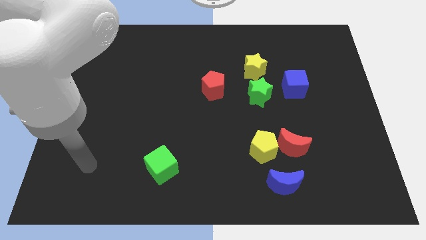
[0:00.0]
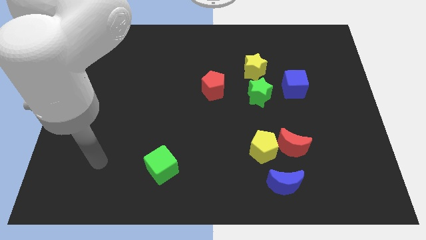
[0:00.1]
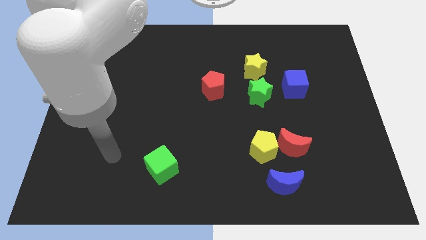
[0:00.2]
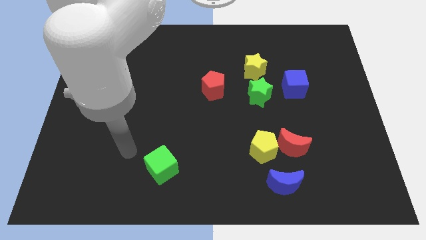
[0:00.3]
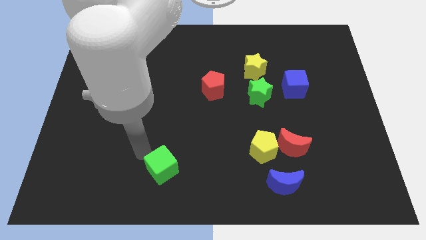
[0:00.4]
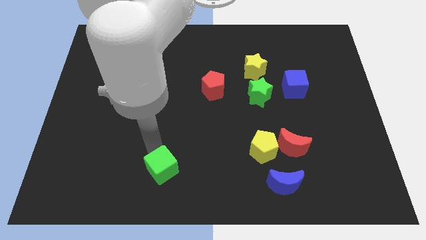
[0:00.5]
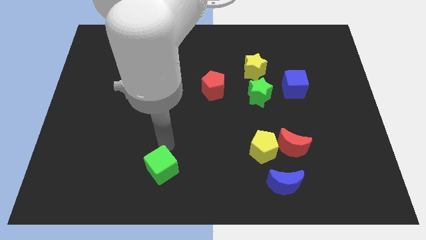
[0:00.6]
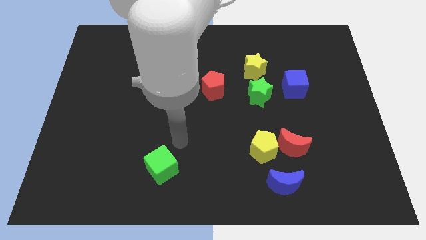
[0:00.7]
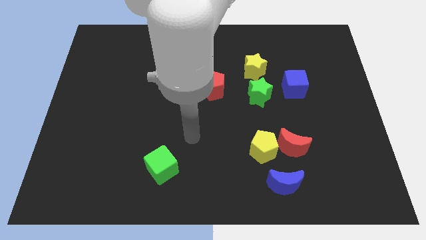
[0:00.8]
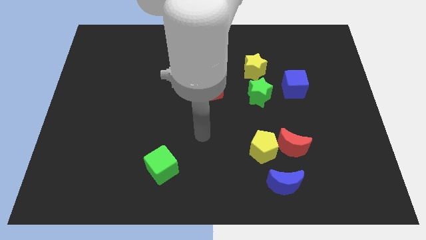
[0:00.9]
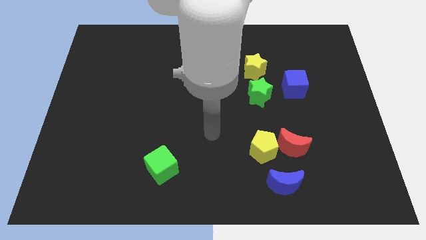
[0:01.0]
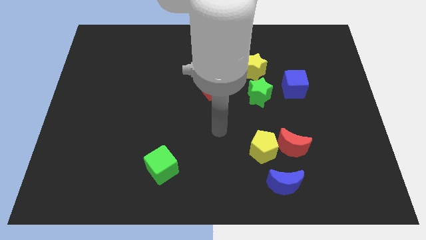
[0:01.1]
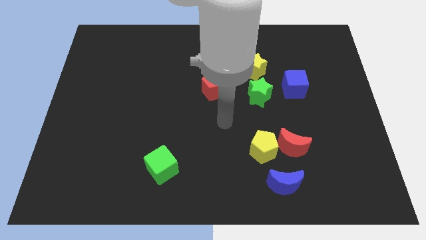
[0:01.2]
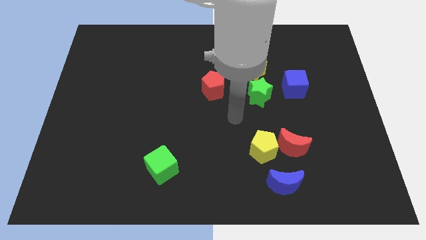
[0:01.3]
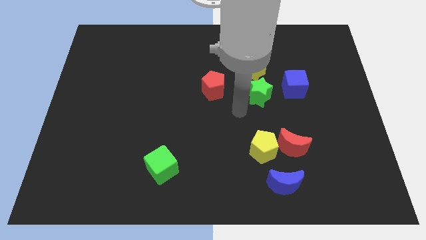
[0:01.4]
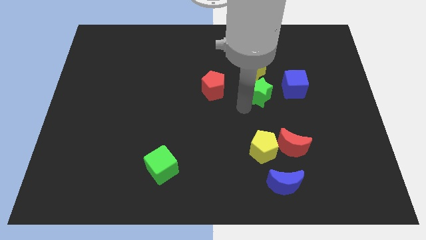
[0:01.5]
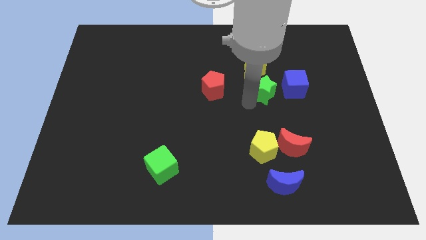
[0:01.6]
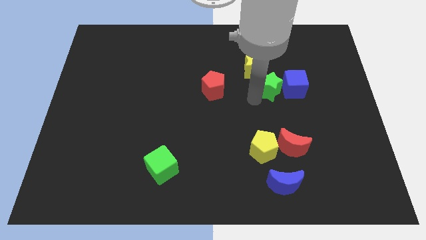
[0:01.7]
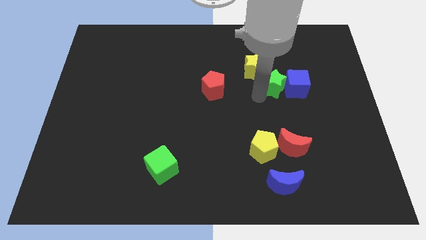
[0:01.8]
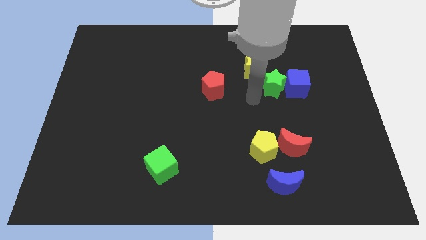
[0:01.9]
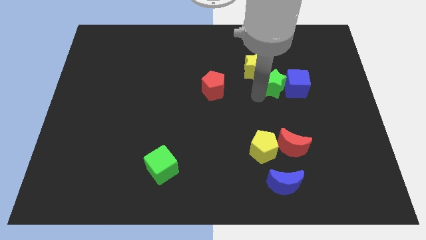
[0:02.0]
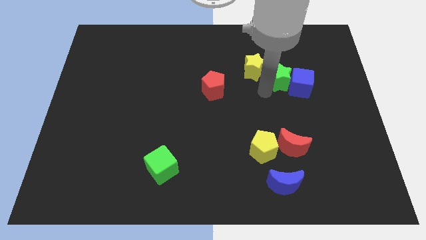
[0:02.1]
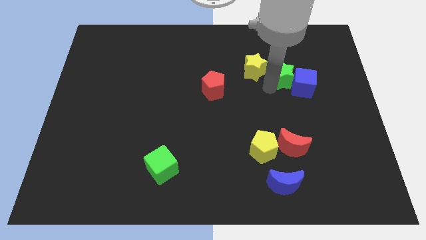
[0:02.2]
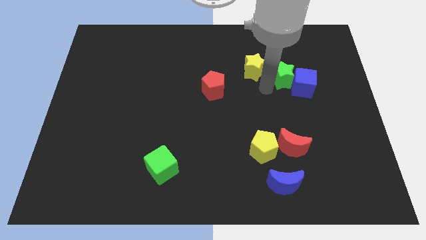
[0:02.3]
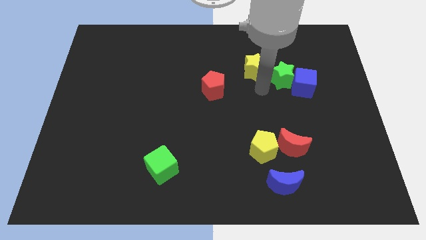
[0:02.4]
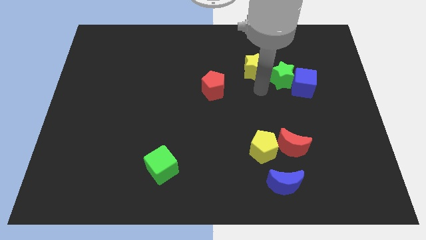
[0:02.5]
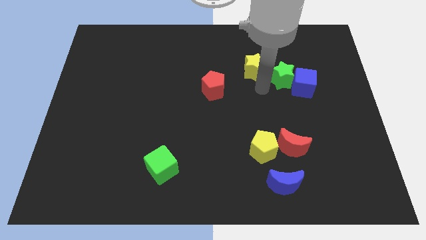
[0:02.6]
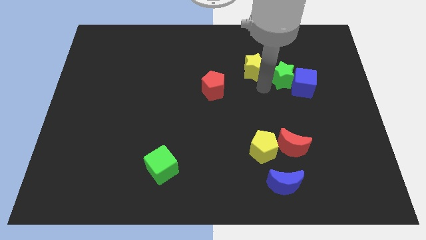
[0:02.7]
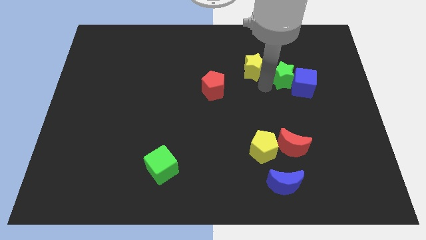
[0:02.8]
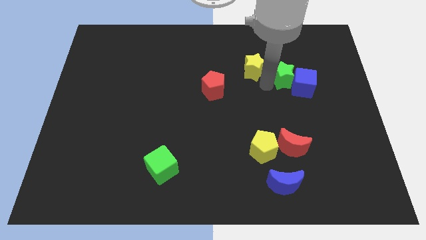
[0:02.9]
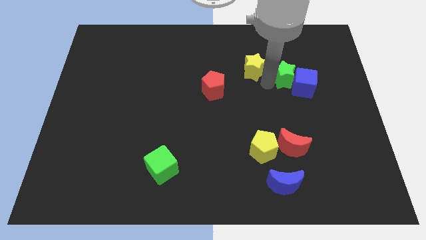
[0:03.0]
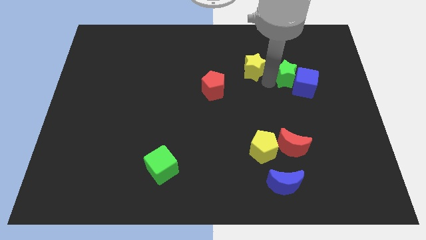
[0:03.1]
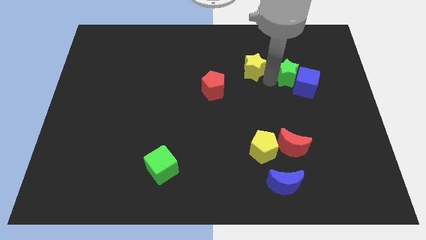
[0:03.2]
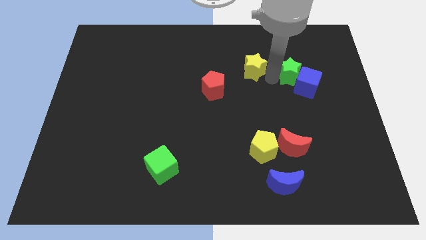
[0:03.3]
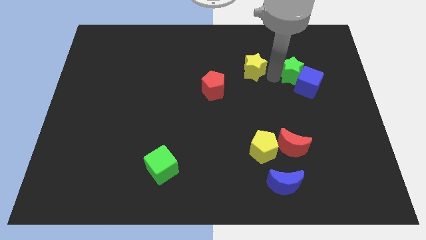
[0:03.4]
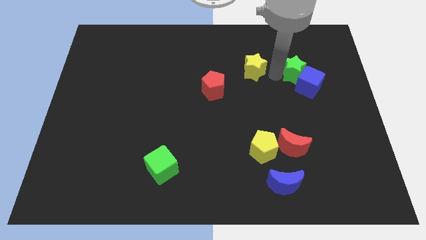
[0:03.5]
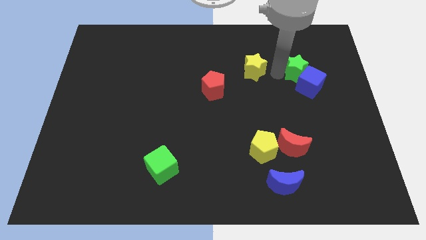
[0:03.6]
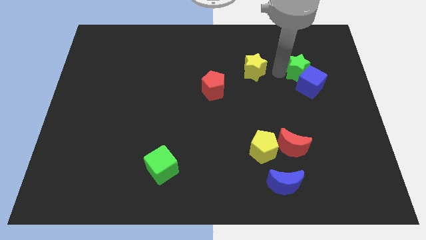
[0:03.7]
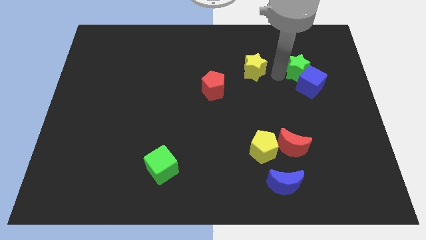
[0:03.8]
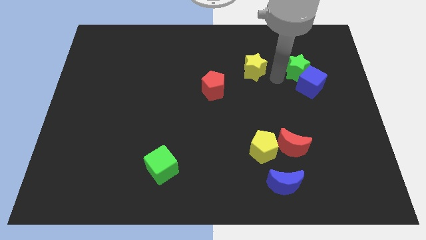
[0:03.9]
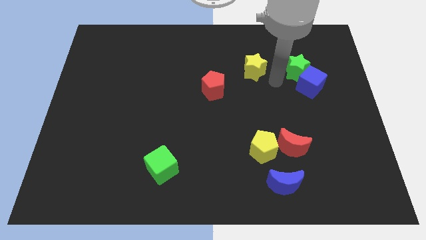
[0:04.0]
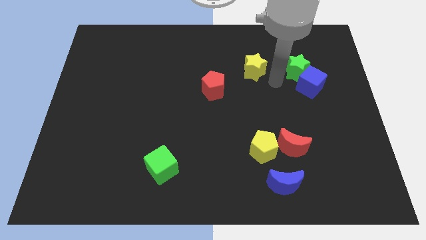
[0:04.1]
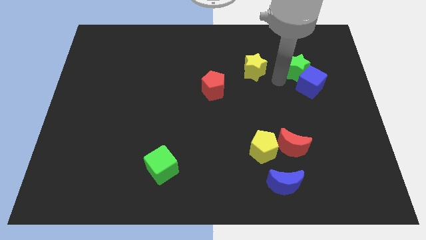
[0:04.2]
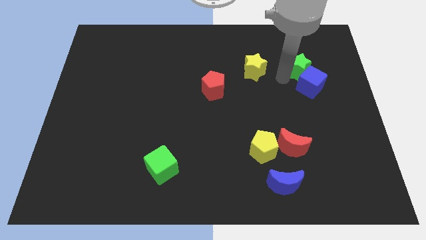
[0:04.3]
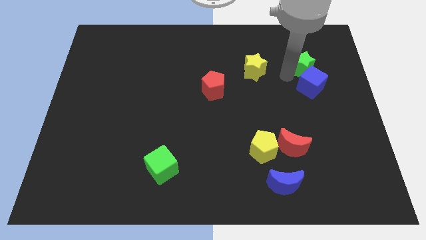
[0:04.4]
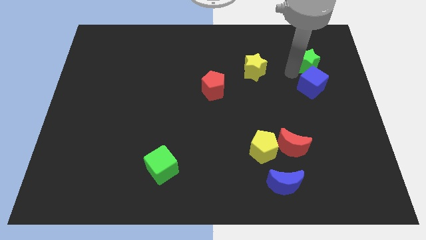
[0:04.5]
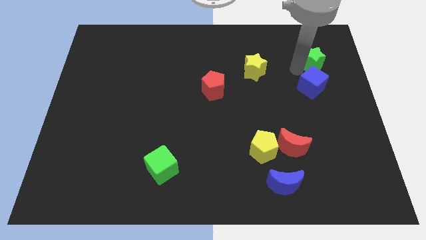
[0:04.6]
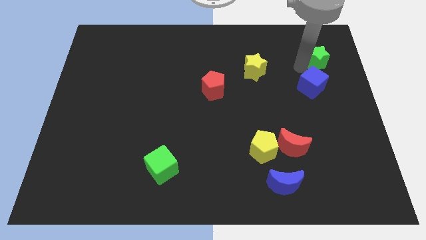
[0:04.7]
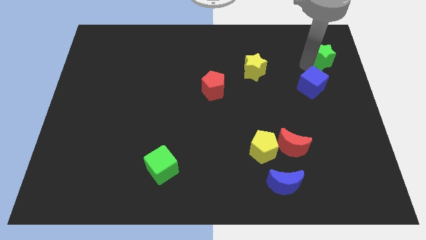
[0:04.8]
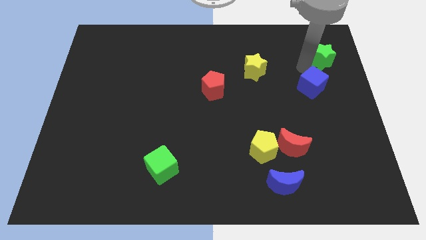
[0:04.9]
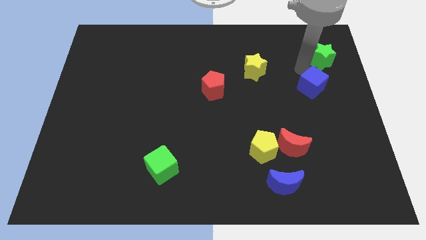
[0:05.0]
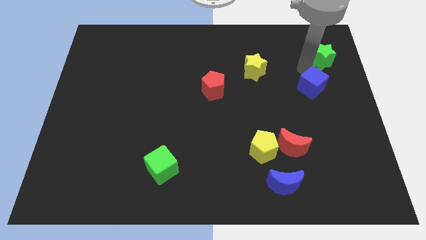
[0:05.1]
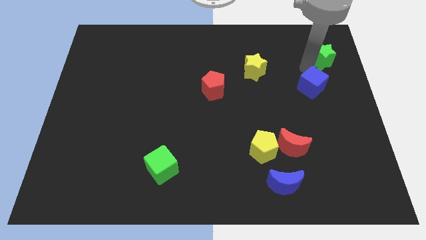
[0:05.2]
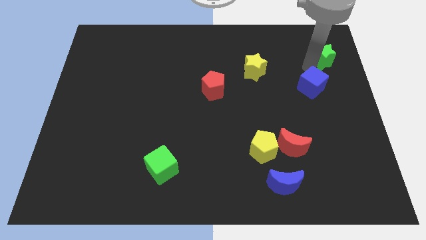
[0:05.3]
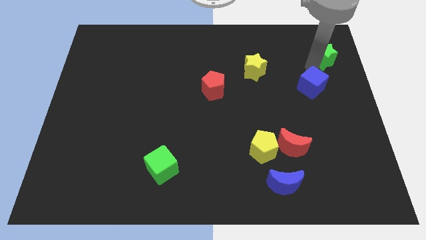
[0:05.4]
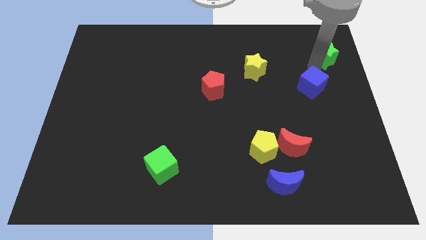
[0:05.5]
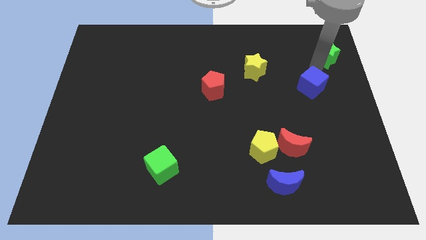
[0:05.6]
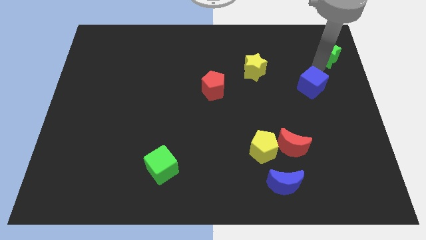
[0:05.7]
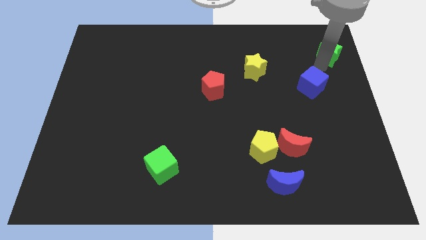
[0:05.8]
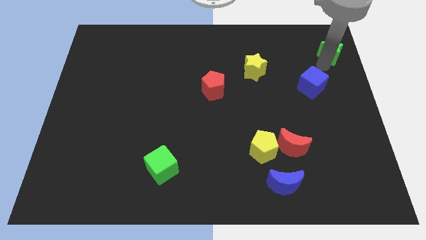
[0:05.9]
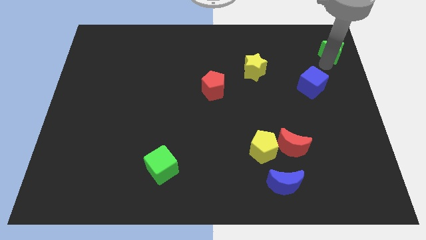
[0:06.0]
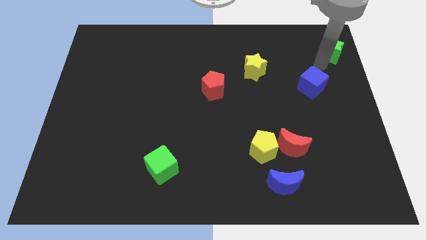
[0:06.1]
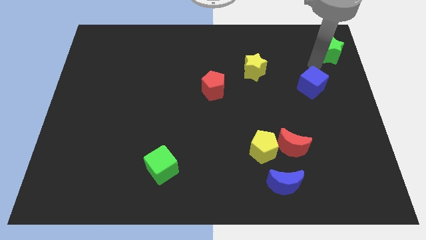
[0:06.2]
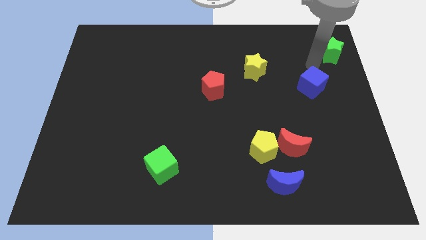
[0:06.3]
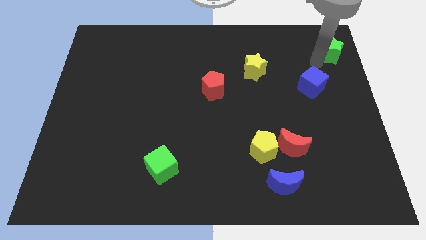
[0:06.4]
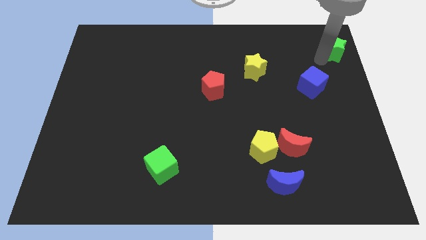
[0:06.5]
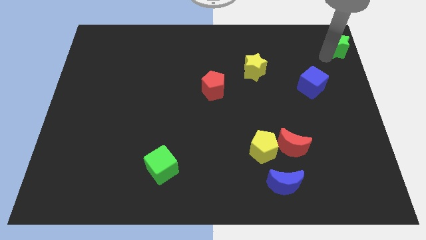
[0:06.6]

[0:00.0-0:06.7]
put the green star to the top right corner
